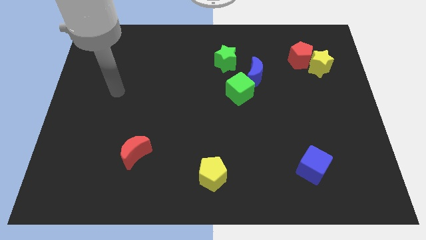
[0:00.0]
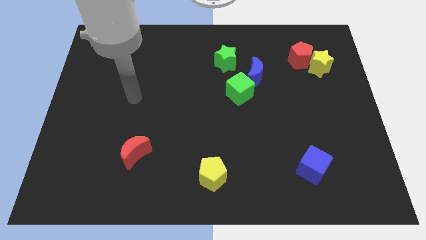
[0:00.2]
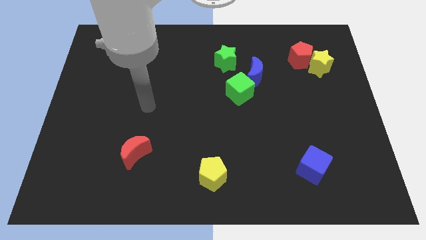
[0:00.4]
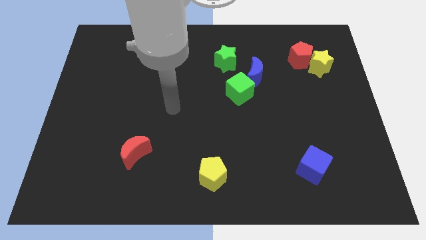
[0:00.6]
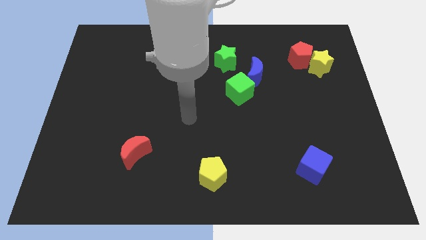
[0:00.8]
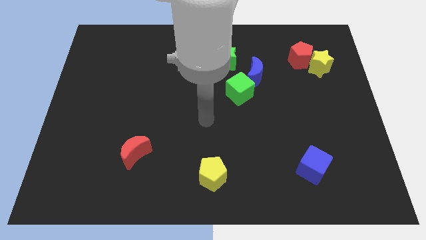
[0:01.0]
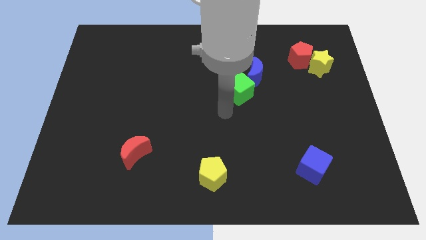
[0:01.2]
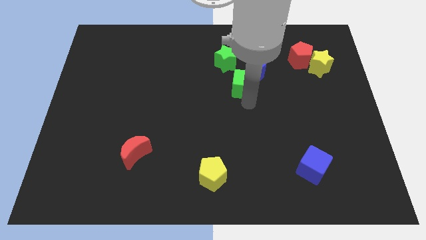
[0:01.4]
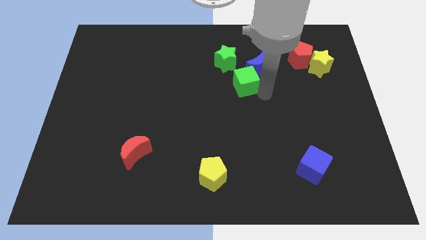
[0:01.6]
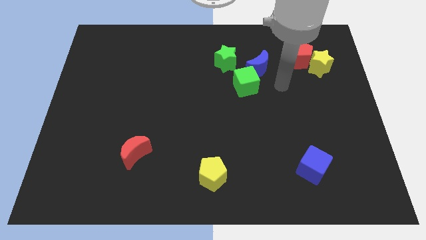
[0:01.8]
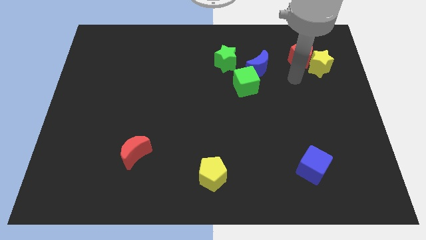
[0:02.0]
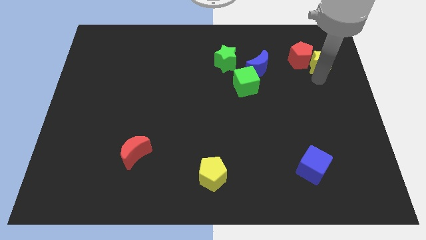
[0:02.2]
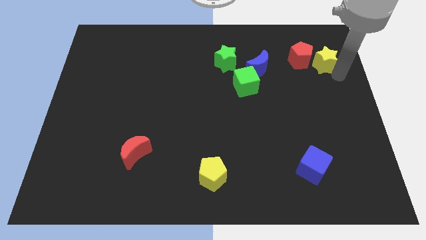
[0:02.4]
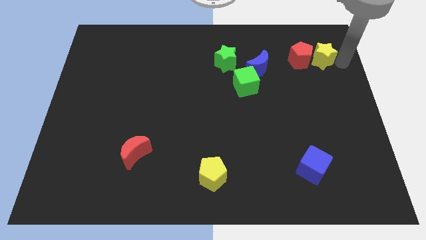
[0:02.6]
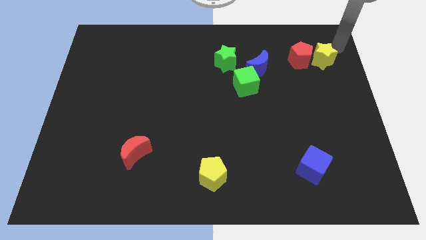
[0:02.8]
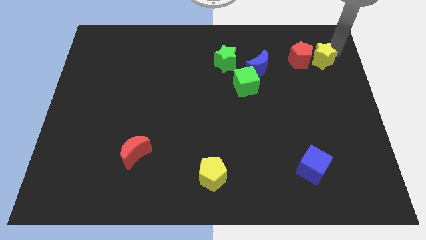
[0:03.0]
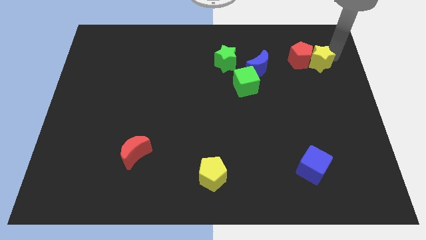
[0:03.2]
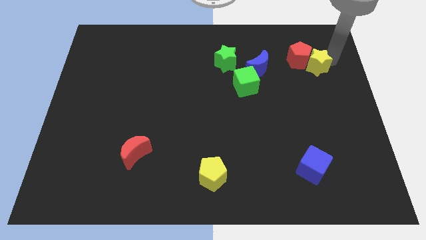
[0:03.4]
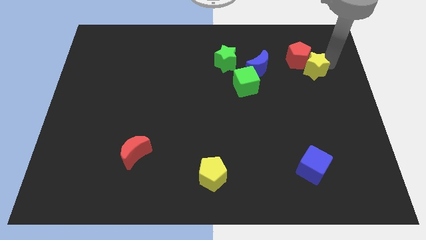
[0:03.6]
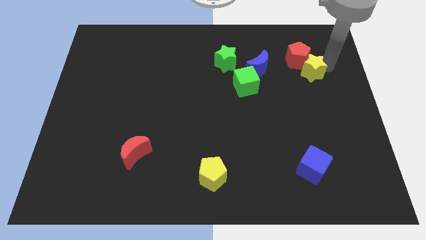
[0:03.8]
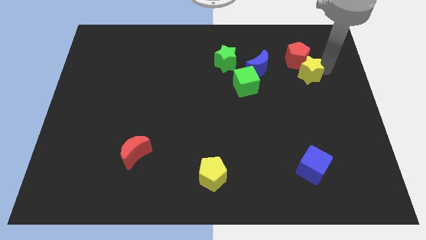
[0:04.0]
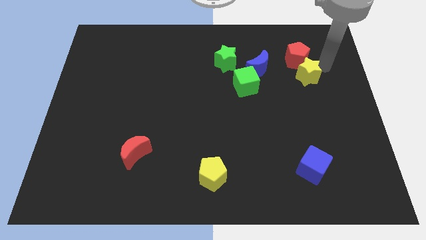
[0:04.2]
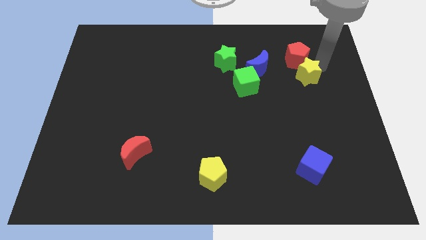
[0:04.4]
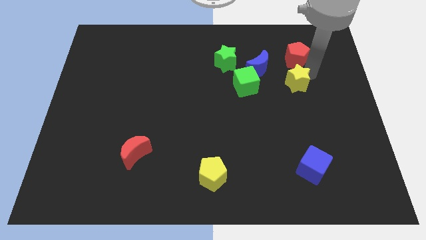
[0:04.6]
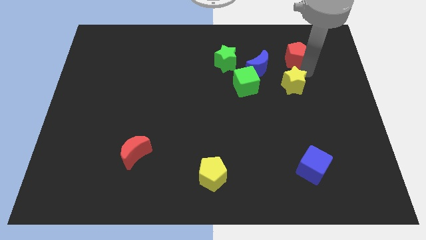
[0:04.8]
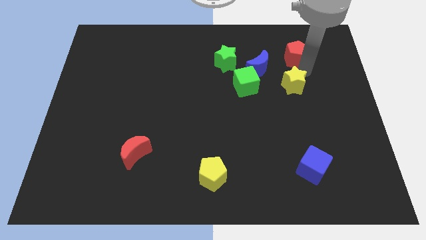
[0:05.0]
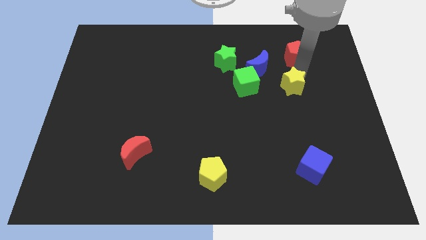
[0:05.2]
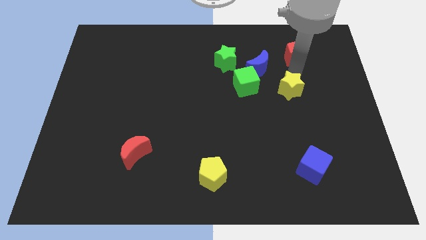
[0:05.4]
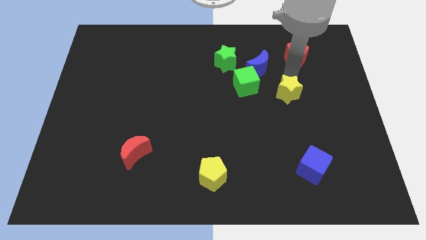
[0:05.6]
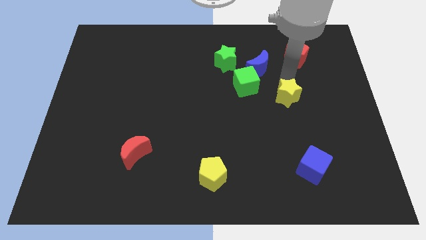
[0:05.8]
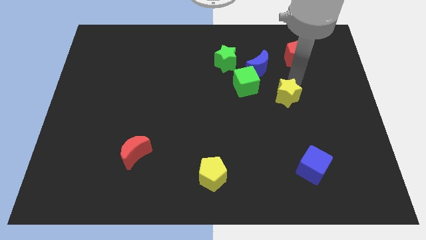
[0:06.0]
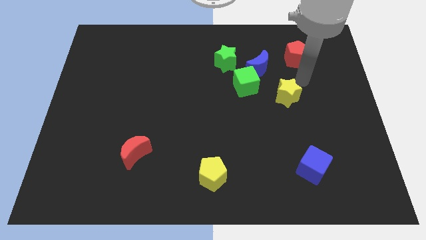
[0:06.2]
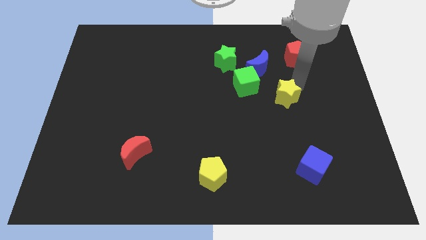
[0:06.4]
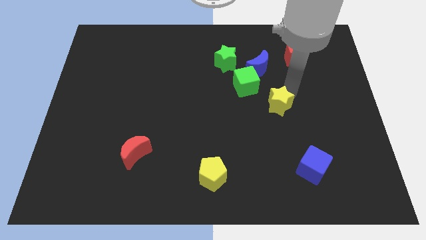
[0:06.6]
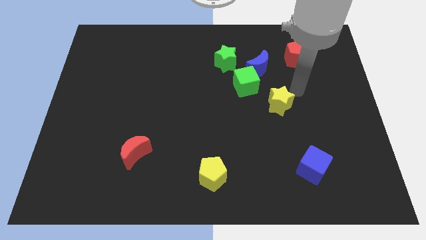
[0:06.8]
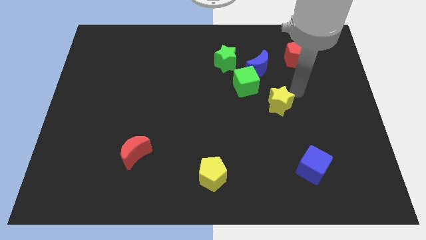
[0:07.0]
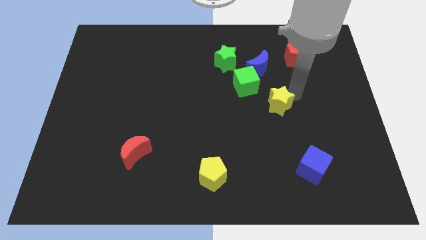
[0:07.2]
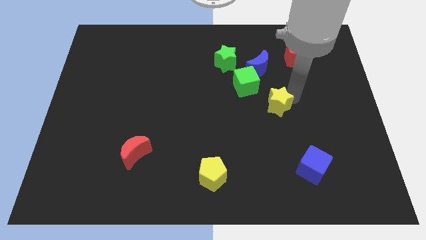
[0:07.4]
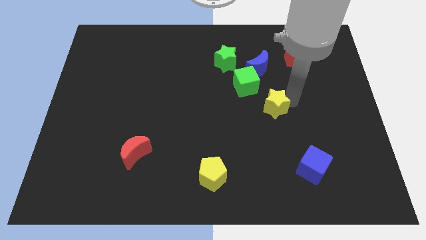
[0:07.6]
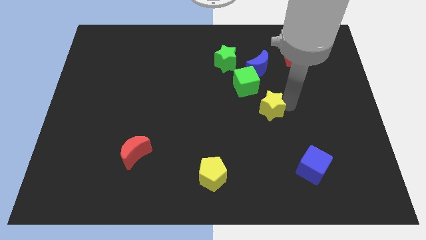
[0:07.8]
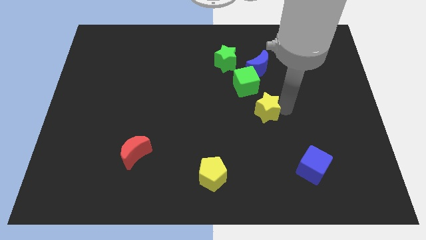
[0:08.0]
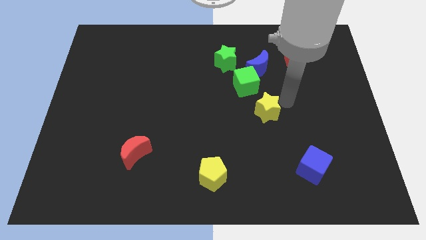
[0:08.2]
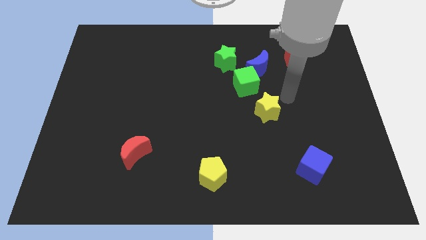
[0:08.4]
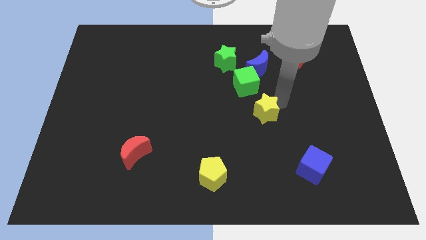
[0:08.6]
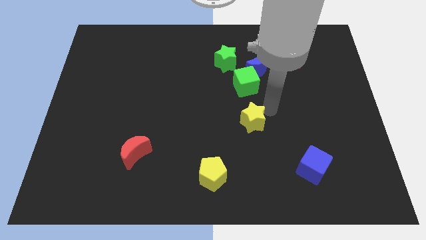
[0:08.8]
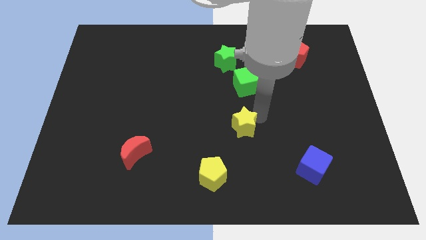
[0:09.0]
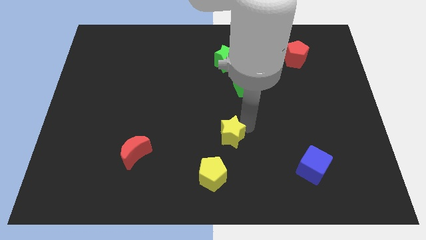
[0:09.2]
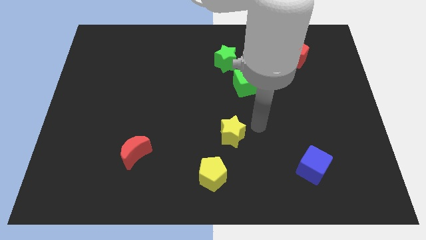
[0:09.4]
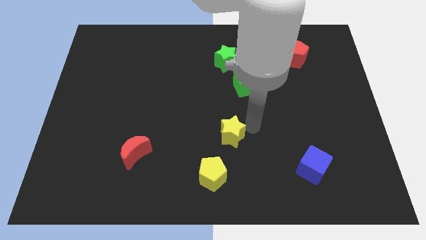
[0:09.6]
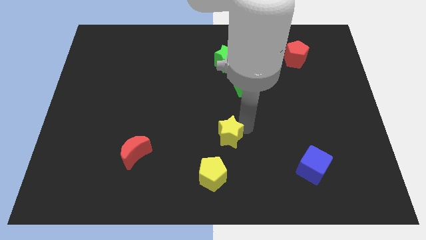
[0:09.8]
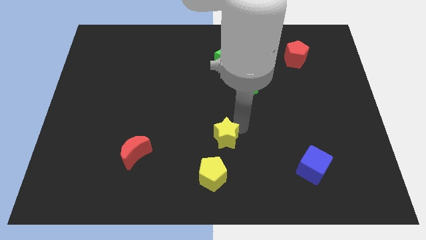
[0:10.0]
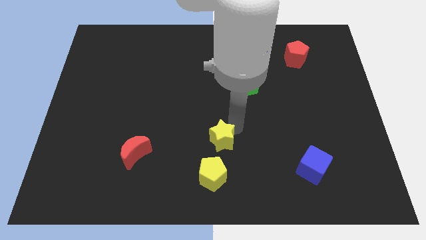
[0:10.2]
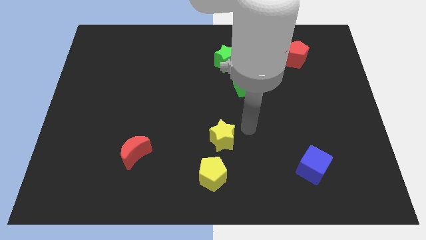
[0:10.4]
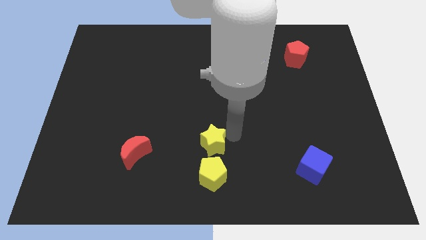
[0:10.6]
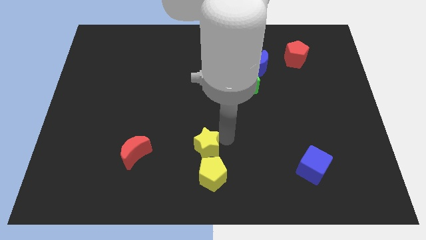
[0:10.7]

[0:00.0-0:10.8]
move the yellow star diagonally up and to the left of the yellow pentagon
